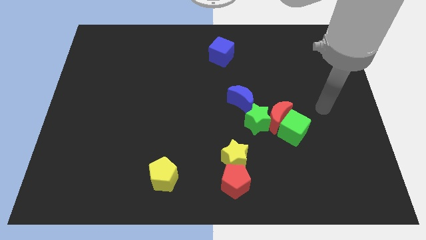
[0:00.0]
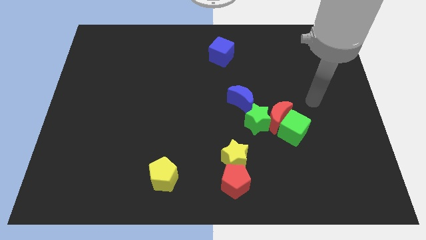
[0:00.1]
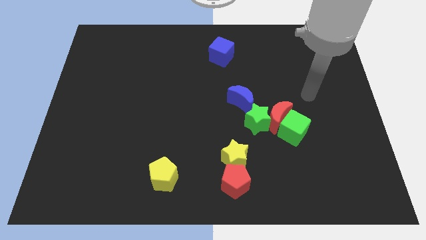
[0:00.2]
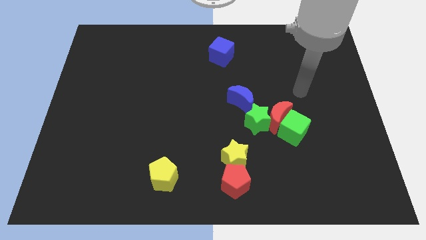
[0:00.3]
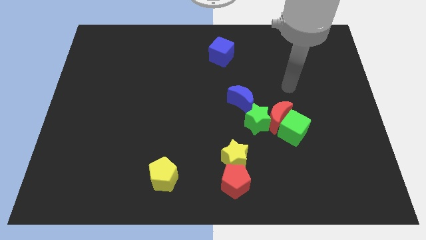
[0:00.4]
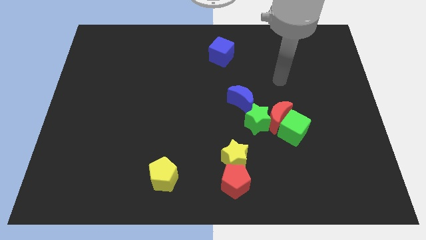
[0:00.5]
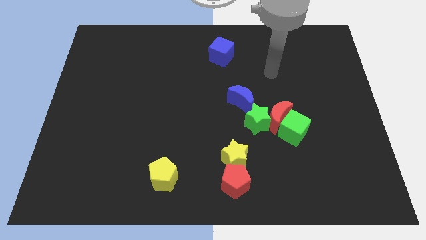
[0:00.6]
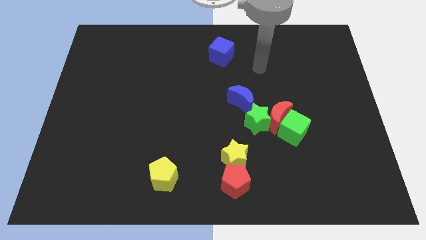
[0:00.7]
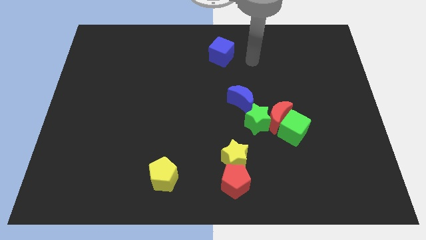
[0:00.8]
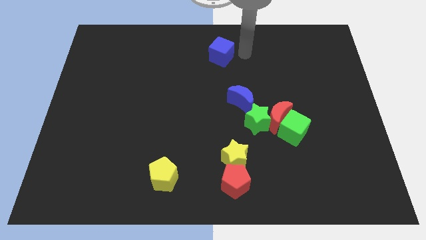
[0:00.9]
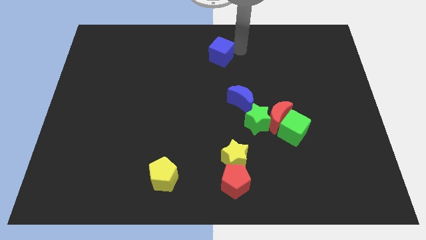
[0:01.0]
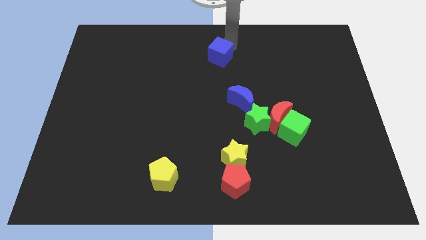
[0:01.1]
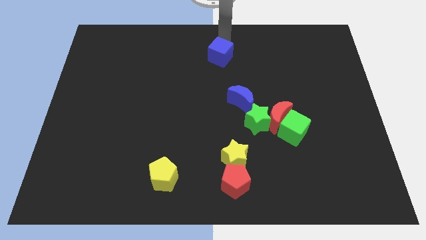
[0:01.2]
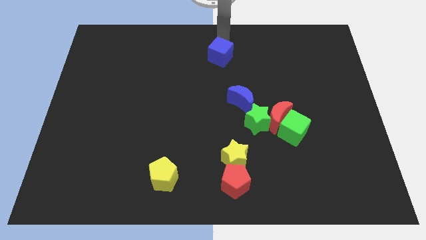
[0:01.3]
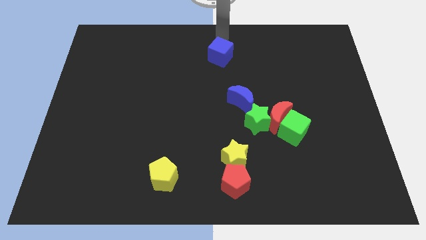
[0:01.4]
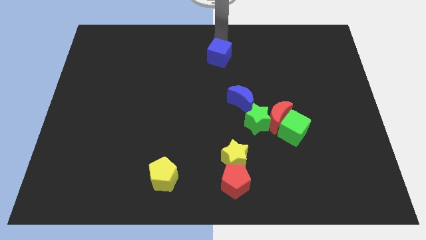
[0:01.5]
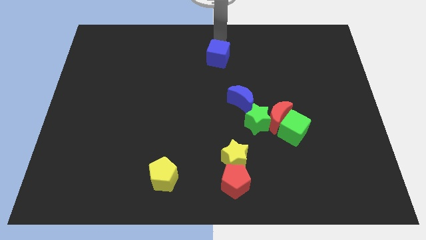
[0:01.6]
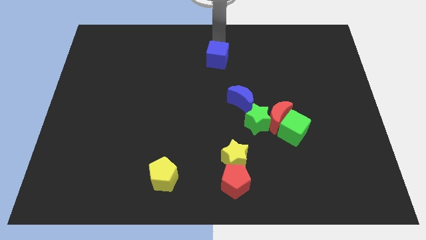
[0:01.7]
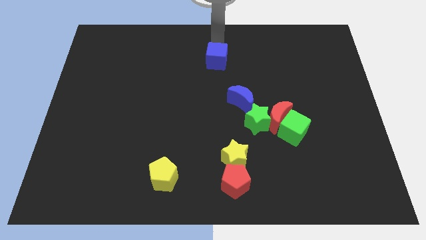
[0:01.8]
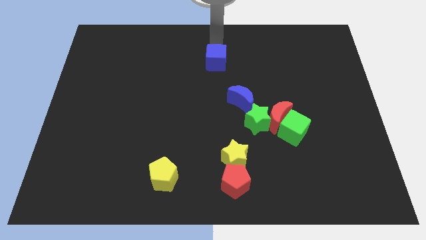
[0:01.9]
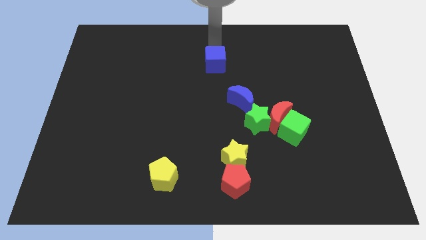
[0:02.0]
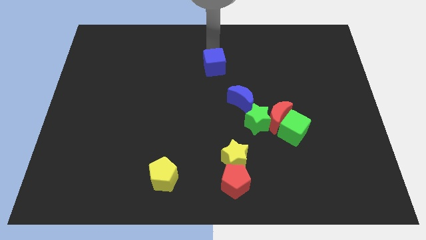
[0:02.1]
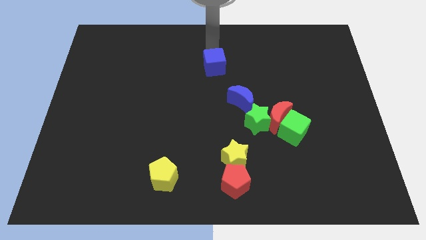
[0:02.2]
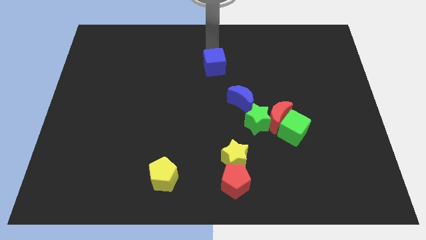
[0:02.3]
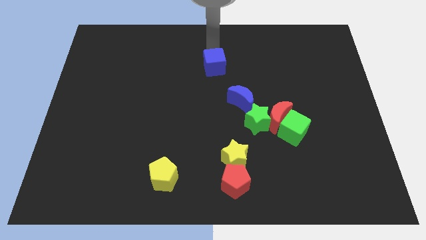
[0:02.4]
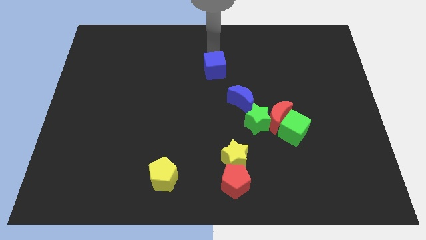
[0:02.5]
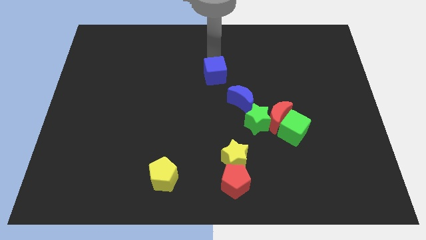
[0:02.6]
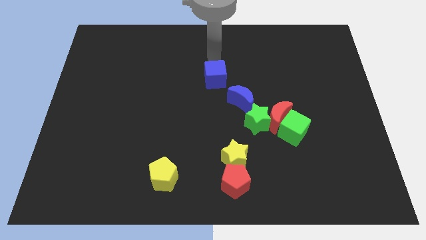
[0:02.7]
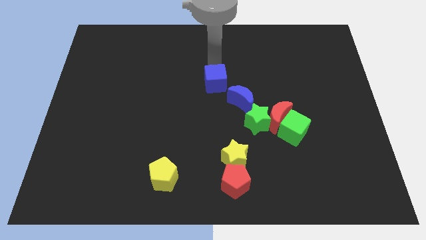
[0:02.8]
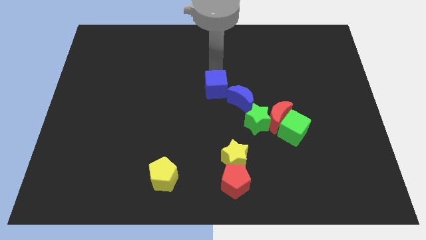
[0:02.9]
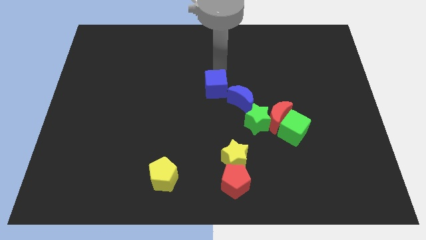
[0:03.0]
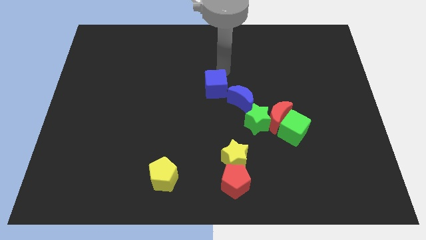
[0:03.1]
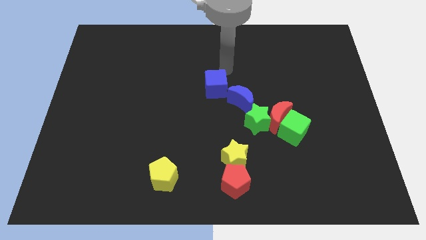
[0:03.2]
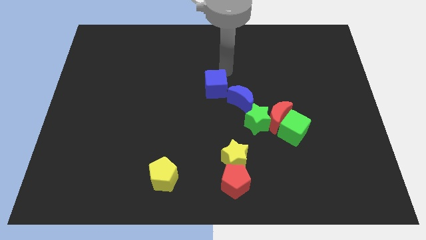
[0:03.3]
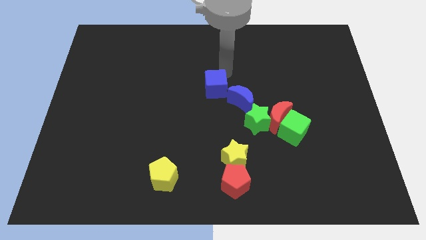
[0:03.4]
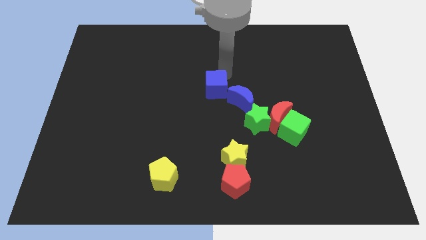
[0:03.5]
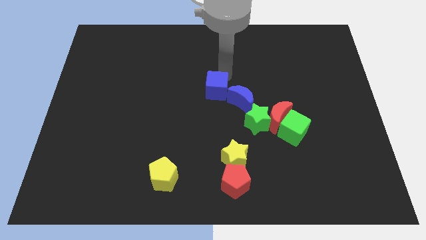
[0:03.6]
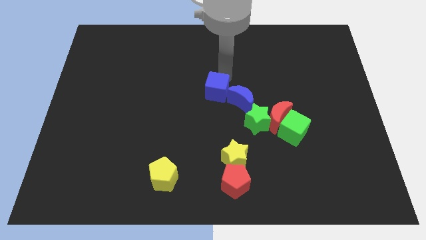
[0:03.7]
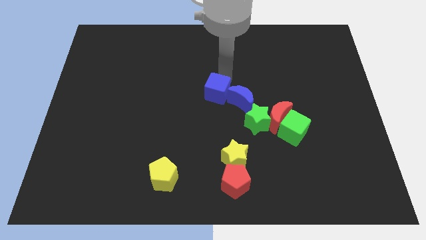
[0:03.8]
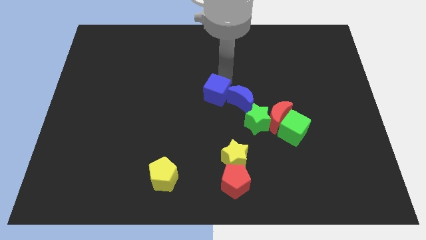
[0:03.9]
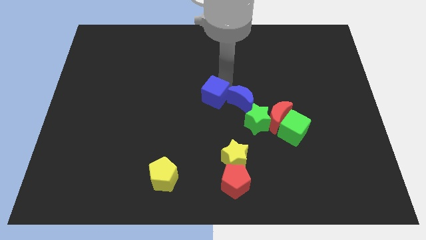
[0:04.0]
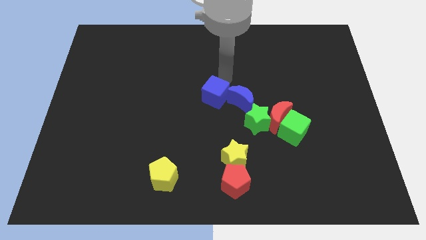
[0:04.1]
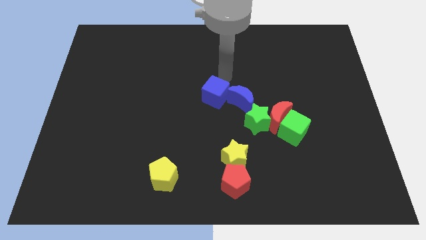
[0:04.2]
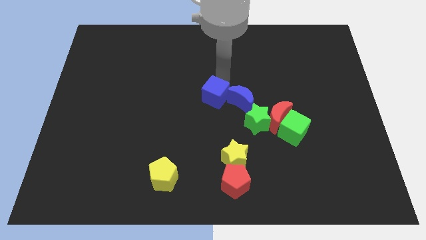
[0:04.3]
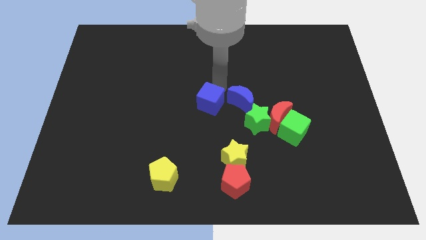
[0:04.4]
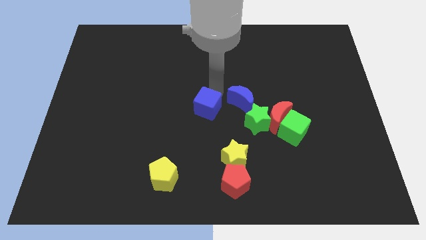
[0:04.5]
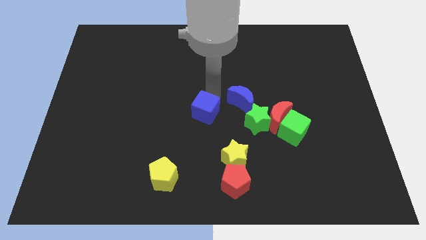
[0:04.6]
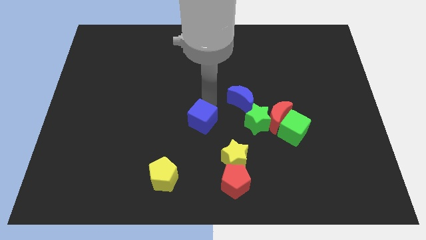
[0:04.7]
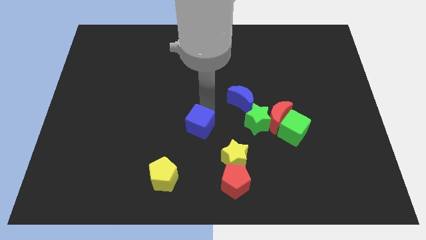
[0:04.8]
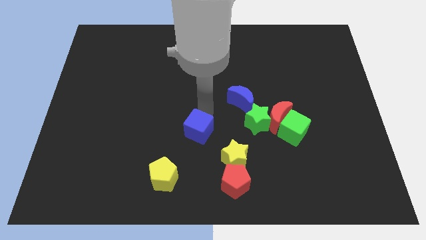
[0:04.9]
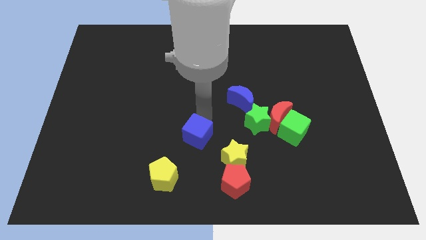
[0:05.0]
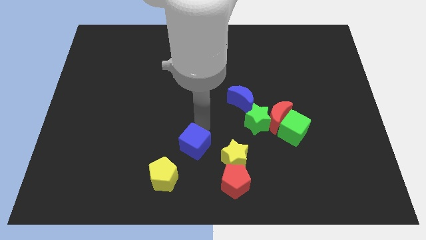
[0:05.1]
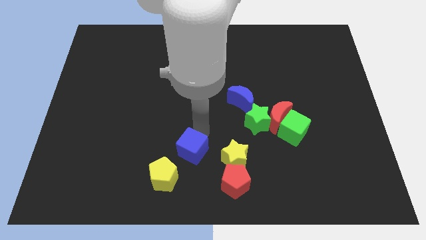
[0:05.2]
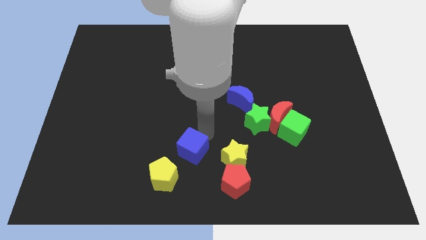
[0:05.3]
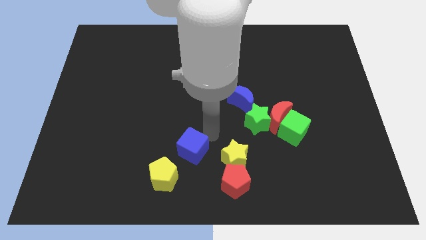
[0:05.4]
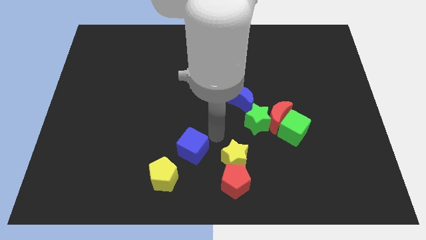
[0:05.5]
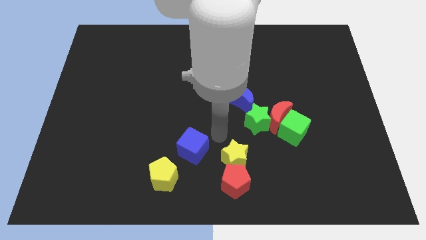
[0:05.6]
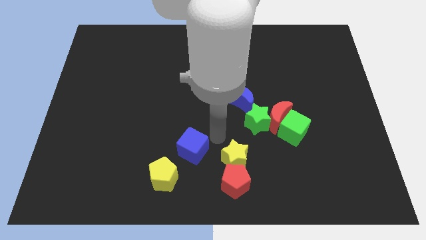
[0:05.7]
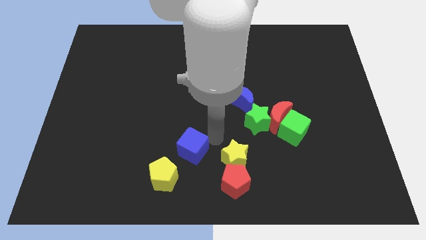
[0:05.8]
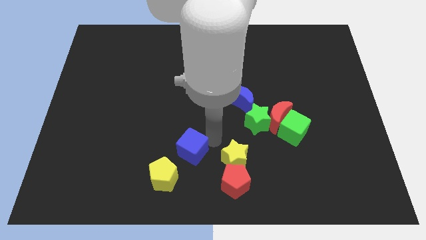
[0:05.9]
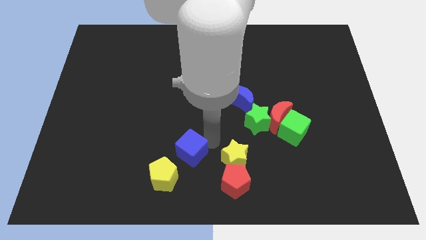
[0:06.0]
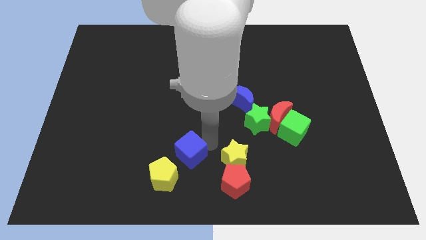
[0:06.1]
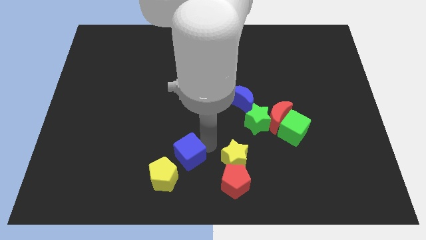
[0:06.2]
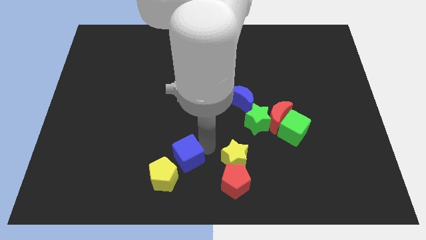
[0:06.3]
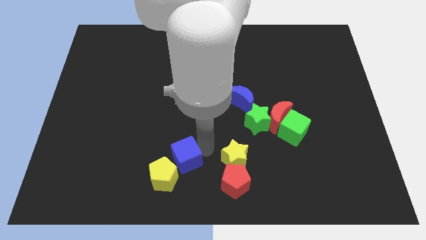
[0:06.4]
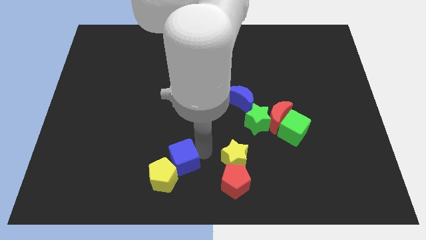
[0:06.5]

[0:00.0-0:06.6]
slide the blue cube to the yellow pentagon
